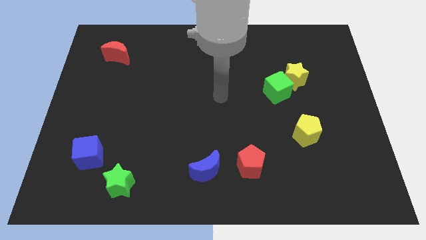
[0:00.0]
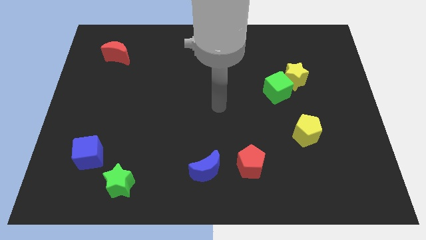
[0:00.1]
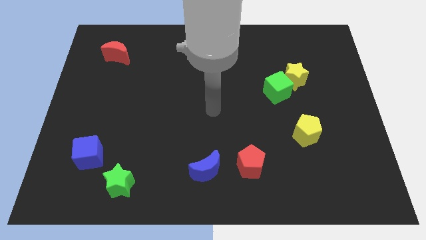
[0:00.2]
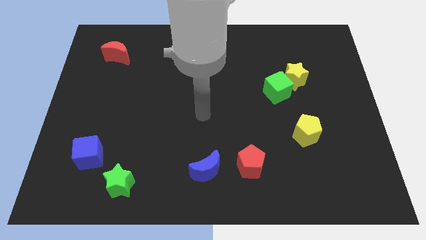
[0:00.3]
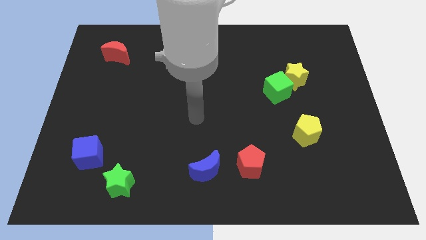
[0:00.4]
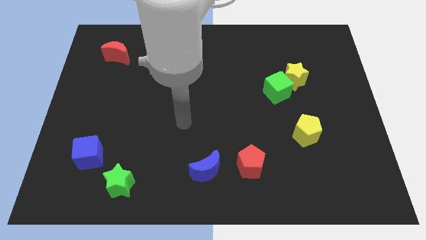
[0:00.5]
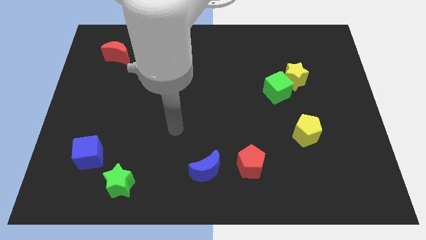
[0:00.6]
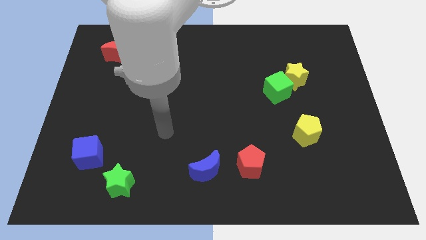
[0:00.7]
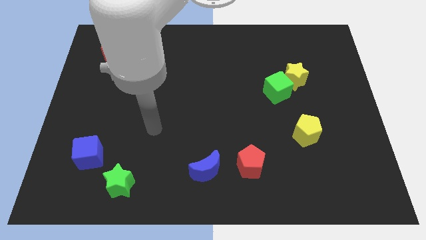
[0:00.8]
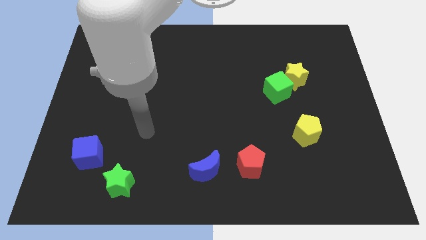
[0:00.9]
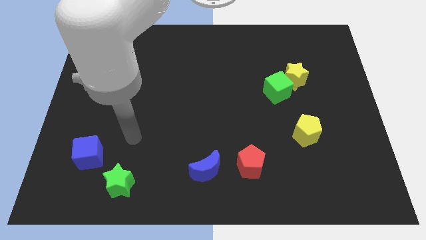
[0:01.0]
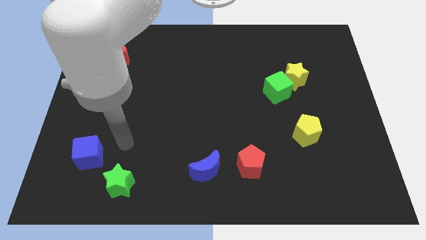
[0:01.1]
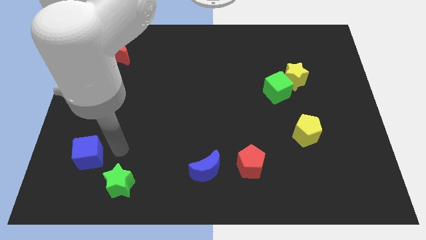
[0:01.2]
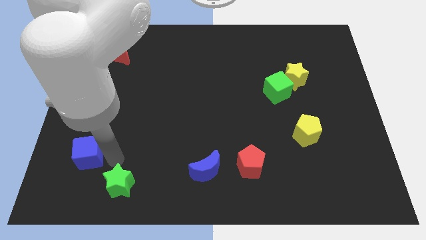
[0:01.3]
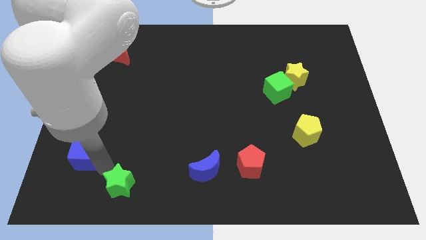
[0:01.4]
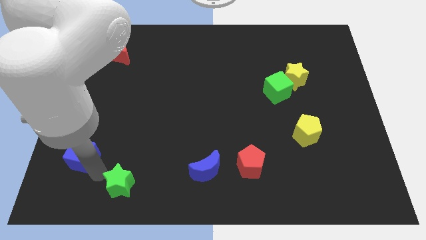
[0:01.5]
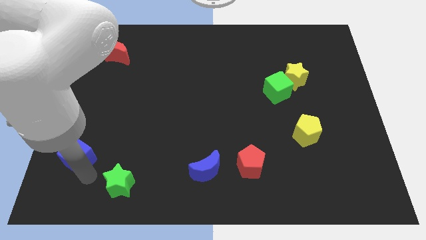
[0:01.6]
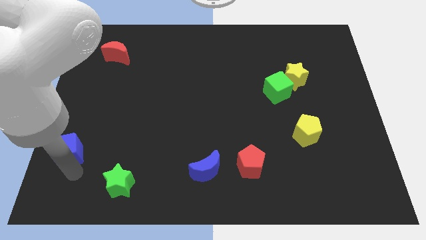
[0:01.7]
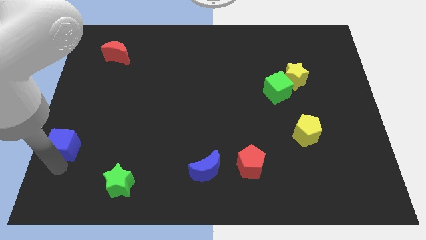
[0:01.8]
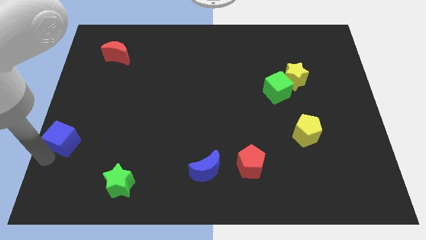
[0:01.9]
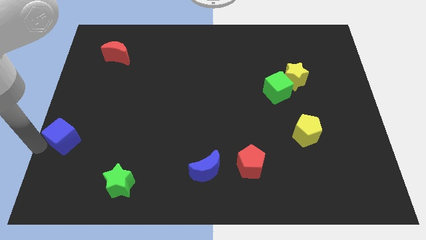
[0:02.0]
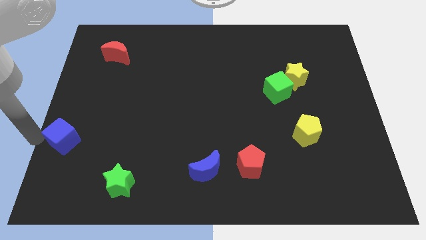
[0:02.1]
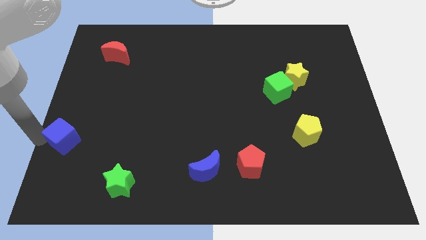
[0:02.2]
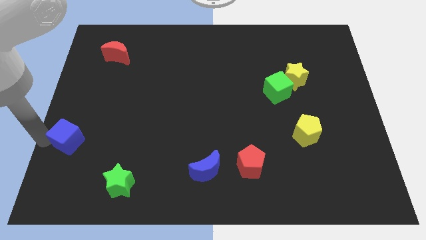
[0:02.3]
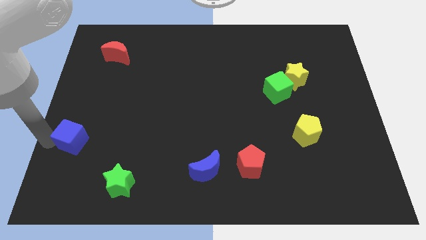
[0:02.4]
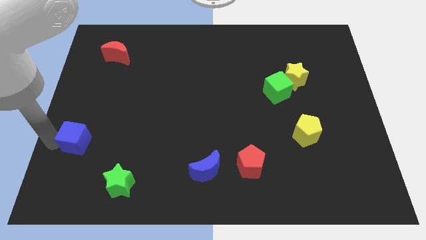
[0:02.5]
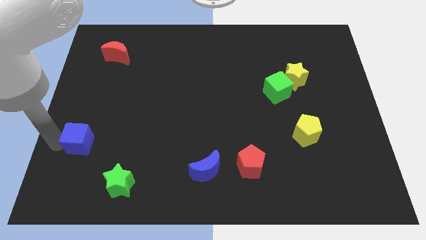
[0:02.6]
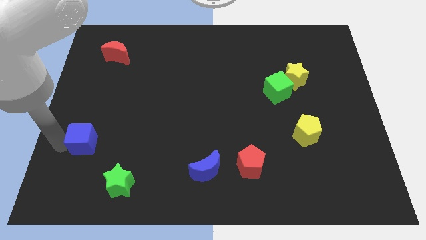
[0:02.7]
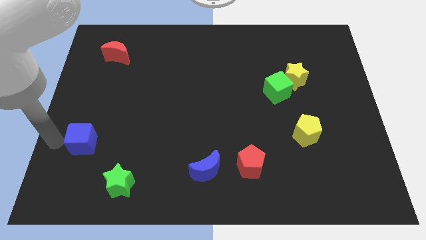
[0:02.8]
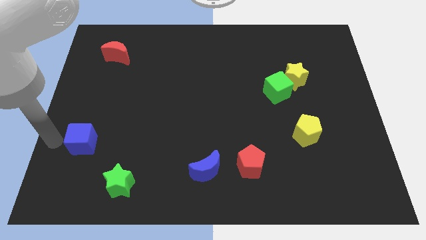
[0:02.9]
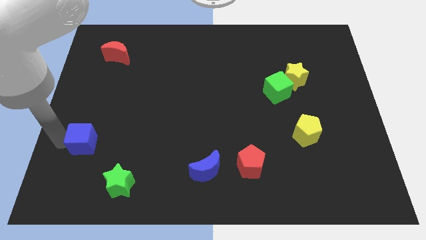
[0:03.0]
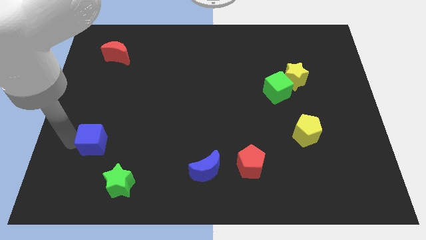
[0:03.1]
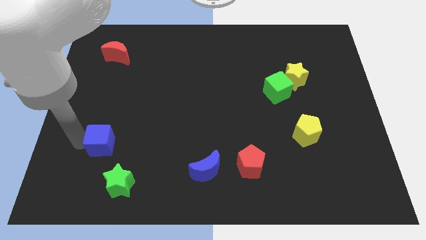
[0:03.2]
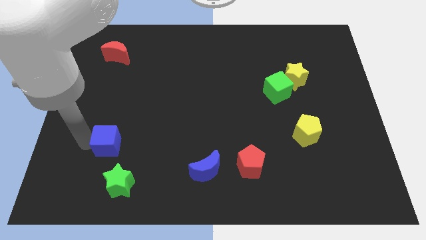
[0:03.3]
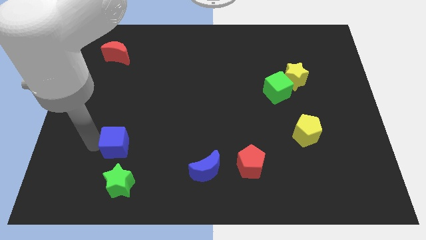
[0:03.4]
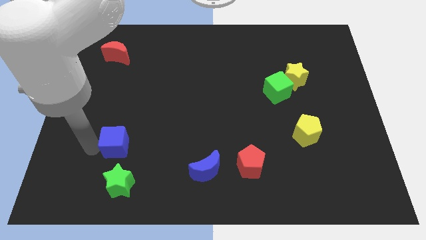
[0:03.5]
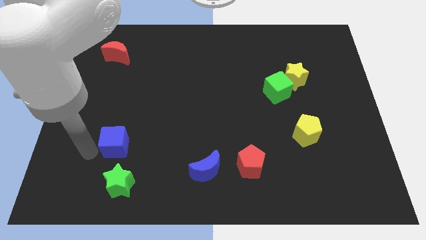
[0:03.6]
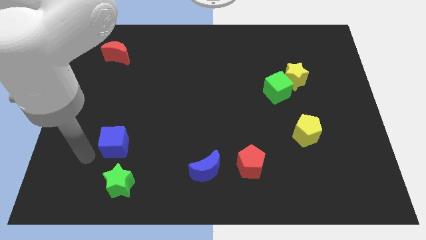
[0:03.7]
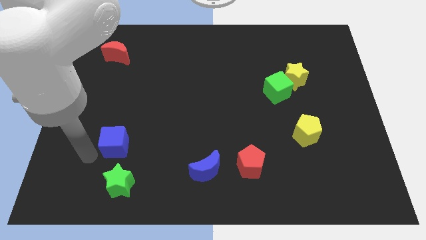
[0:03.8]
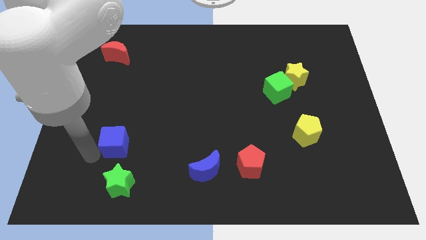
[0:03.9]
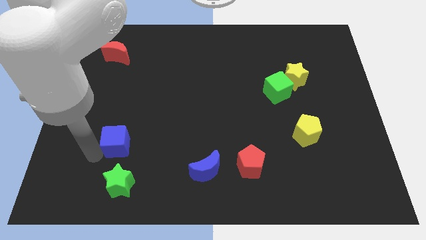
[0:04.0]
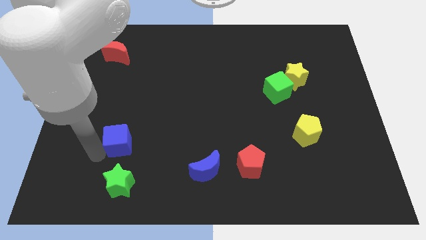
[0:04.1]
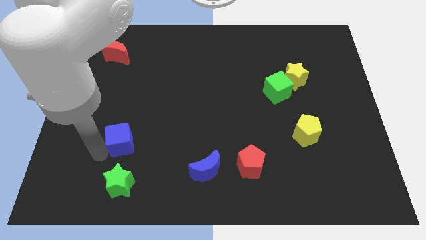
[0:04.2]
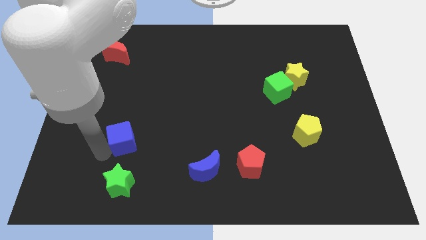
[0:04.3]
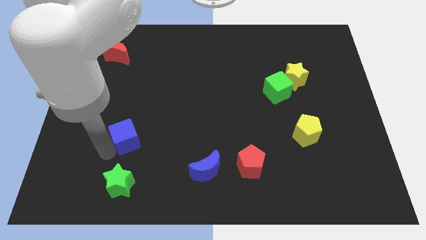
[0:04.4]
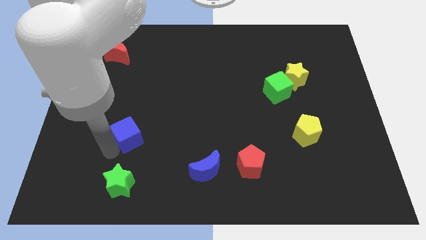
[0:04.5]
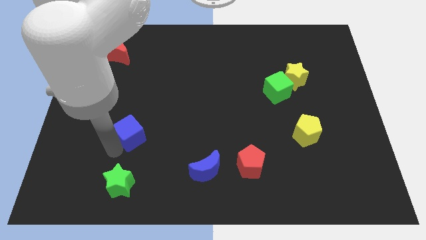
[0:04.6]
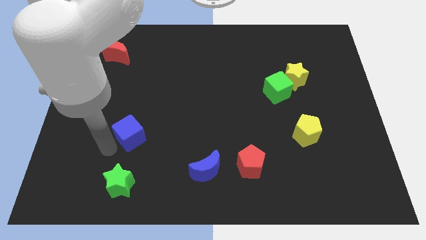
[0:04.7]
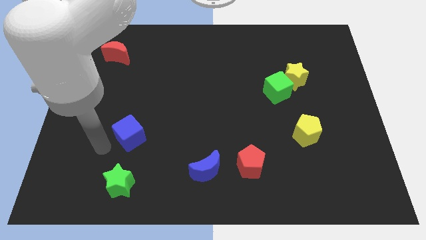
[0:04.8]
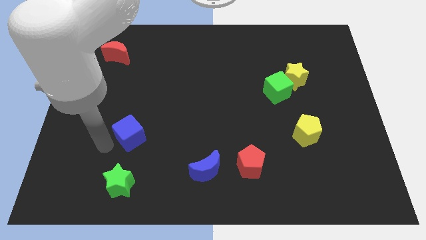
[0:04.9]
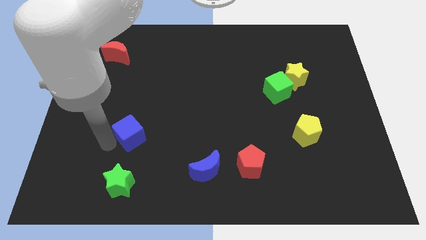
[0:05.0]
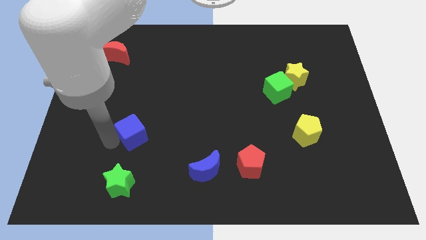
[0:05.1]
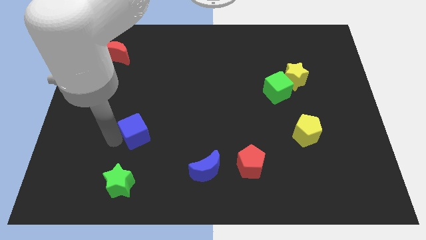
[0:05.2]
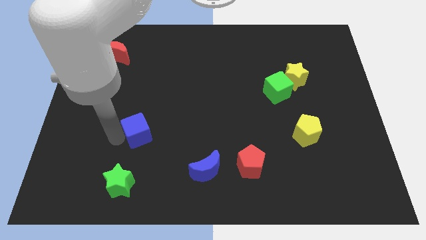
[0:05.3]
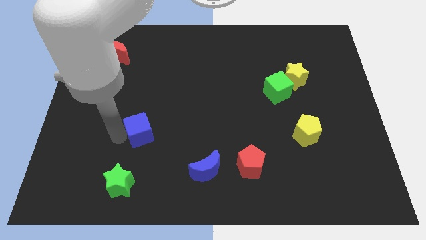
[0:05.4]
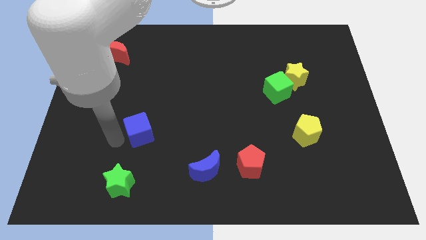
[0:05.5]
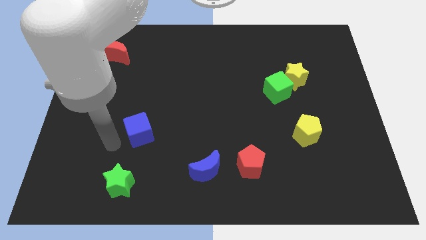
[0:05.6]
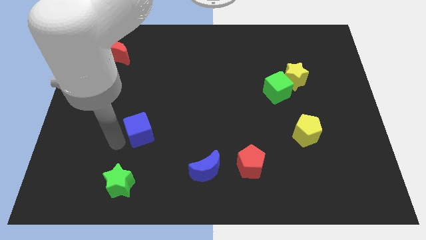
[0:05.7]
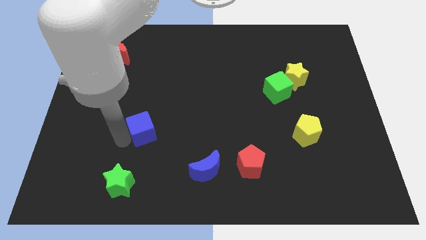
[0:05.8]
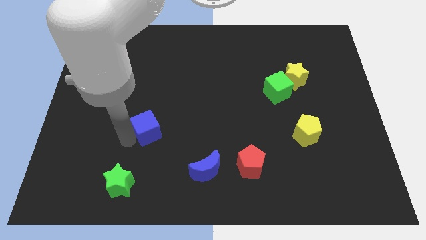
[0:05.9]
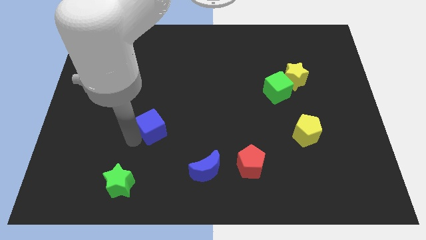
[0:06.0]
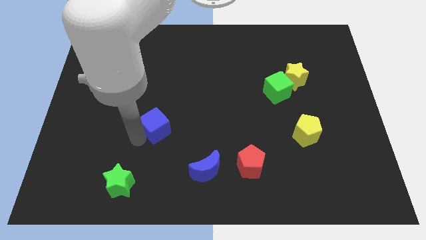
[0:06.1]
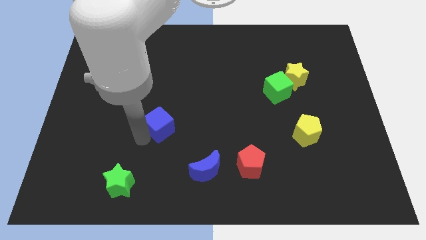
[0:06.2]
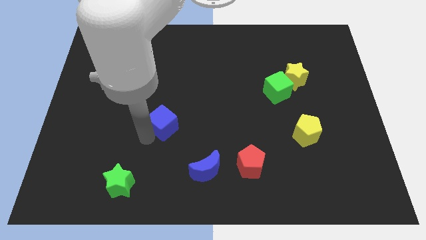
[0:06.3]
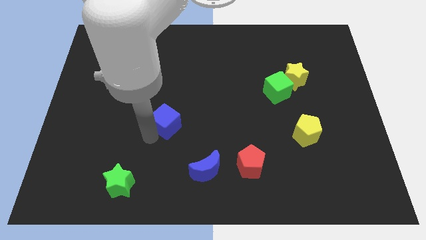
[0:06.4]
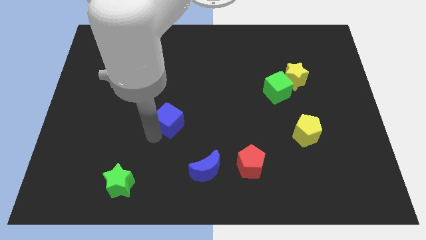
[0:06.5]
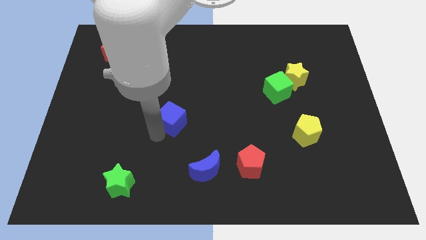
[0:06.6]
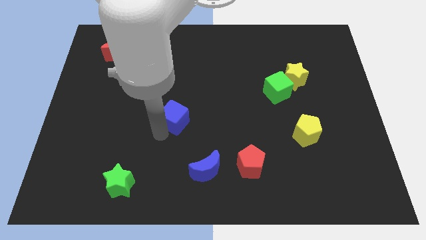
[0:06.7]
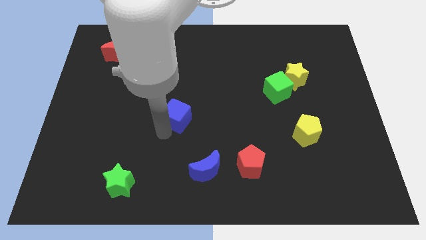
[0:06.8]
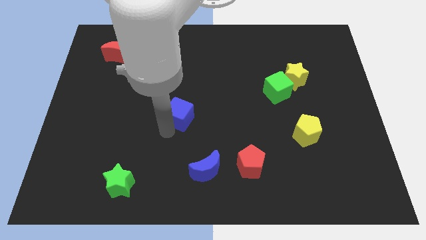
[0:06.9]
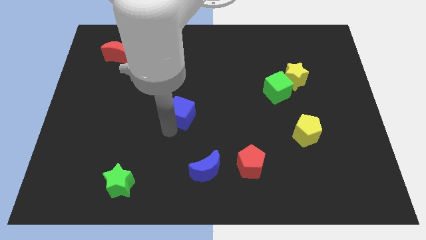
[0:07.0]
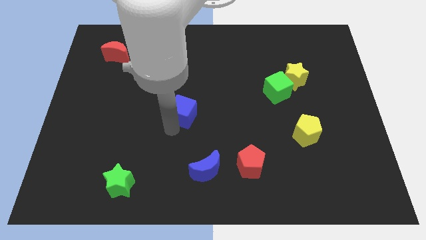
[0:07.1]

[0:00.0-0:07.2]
move the blue cube up and to the right

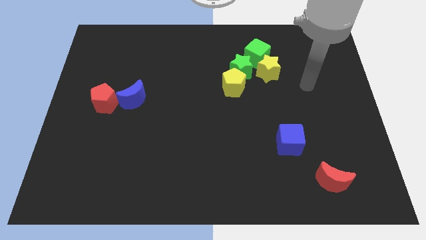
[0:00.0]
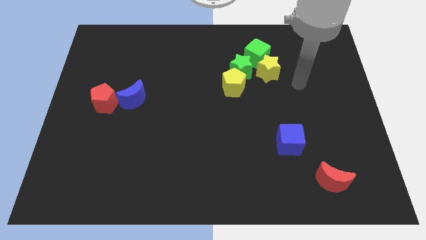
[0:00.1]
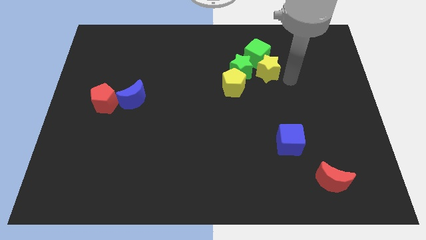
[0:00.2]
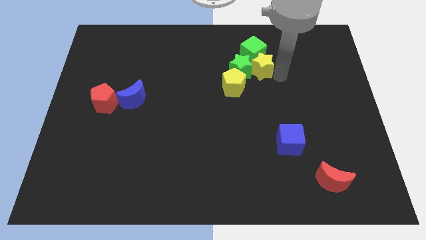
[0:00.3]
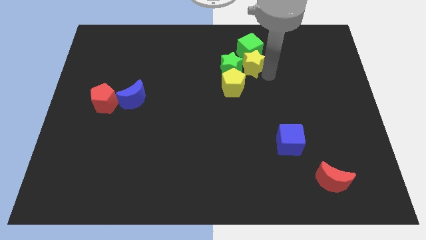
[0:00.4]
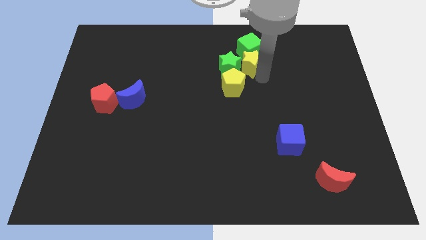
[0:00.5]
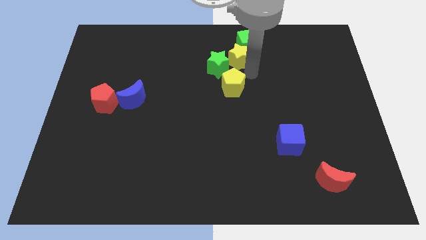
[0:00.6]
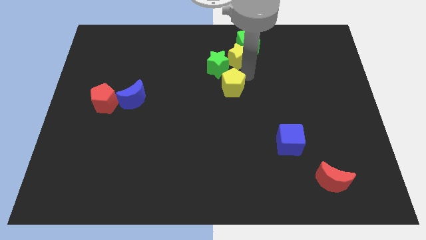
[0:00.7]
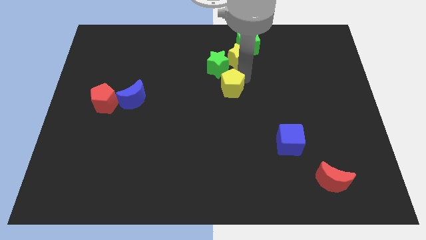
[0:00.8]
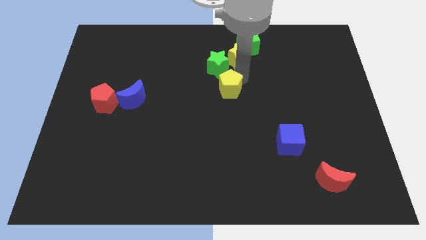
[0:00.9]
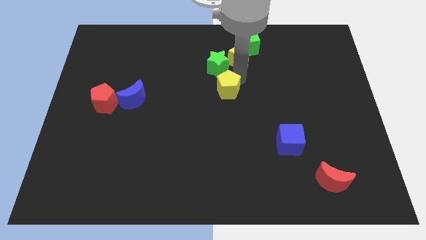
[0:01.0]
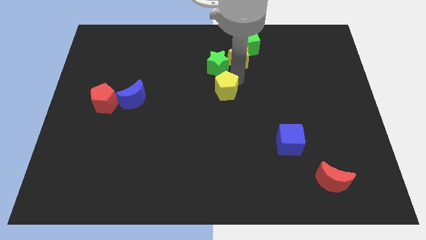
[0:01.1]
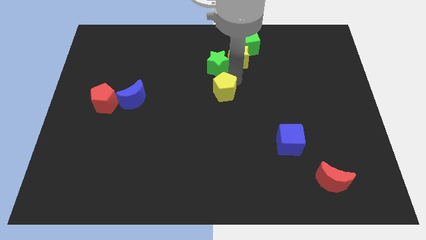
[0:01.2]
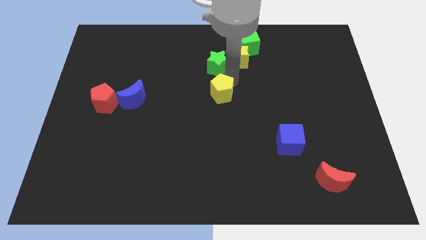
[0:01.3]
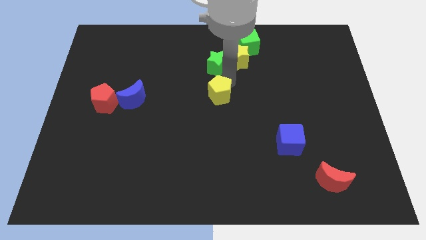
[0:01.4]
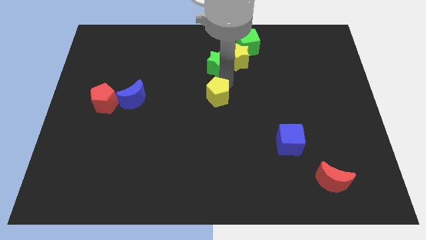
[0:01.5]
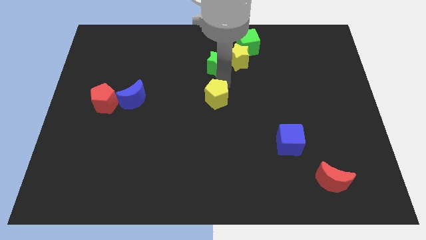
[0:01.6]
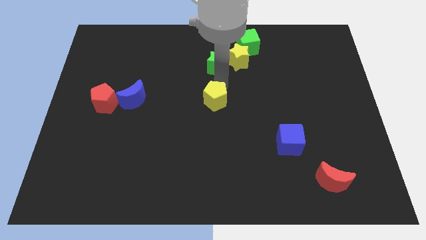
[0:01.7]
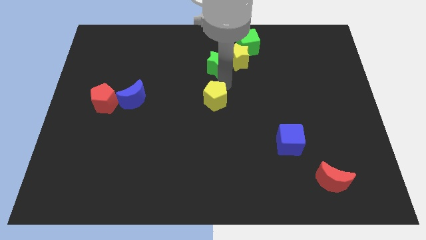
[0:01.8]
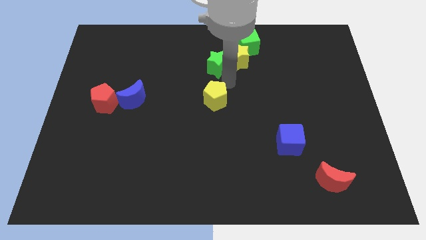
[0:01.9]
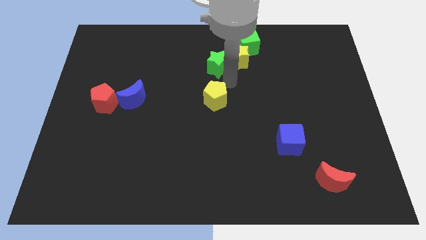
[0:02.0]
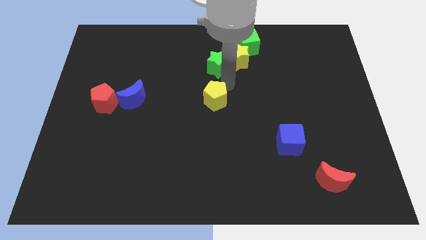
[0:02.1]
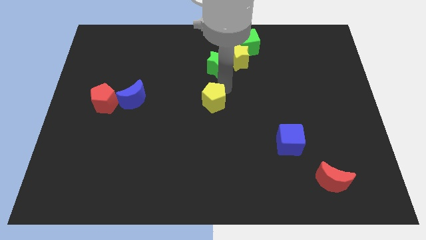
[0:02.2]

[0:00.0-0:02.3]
push the yellow pentagon a little bit diagonally downwards and to the left
